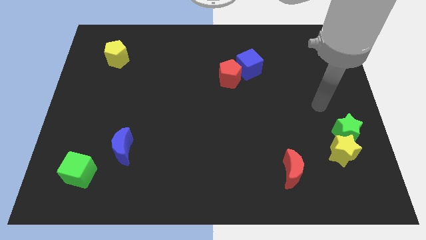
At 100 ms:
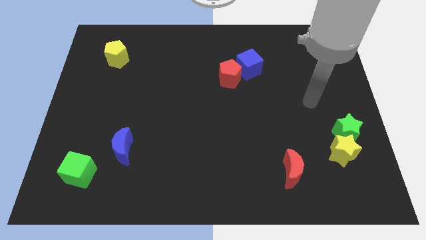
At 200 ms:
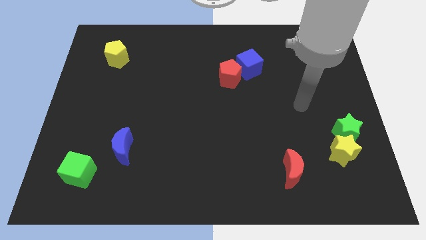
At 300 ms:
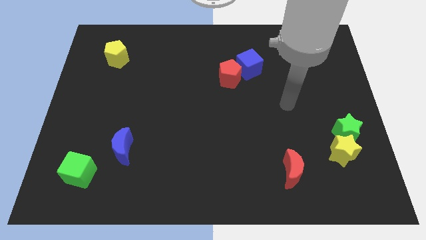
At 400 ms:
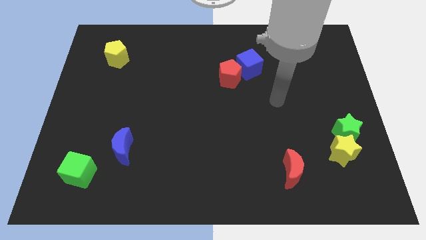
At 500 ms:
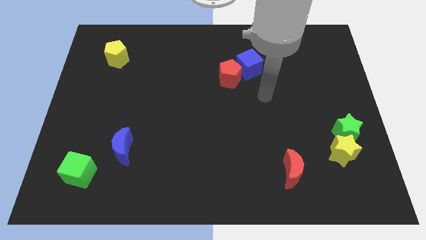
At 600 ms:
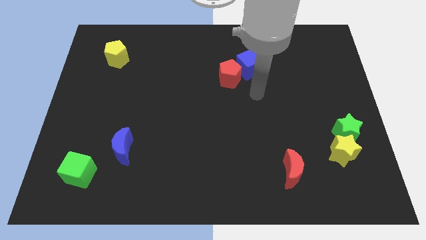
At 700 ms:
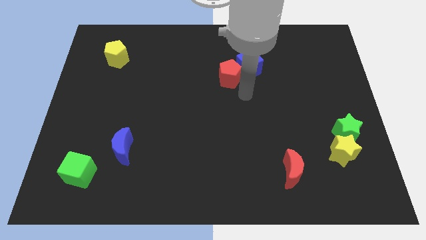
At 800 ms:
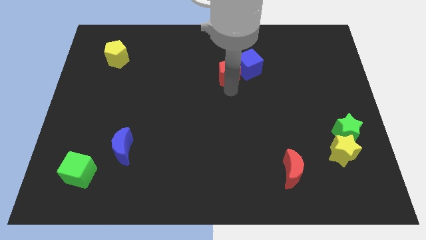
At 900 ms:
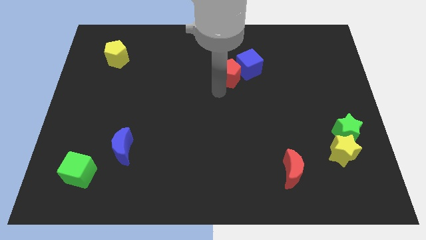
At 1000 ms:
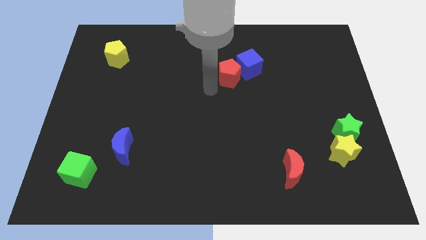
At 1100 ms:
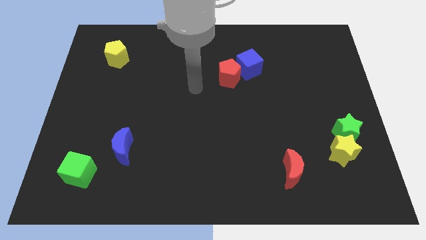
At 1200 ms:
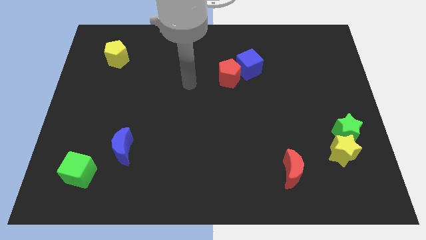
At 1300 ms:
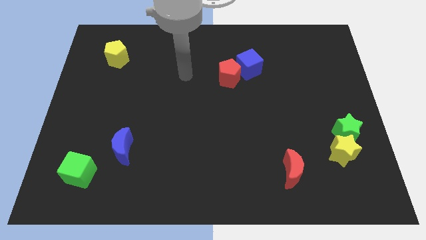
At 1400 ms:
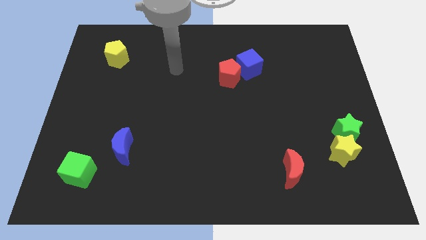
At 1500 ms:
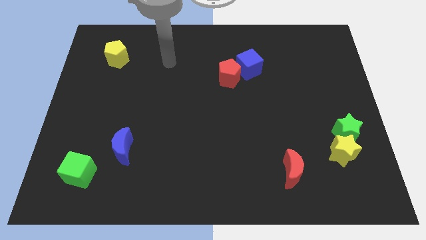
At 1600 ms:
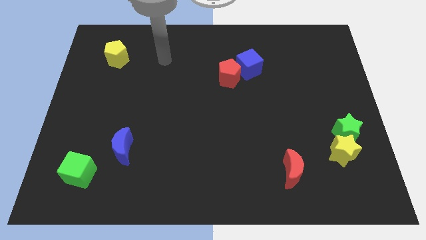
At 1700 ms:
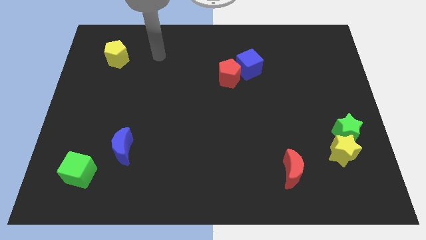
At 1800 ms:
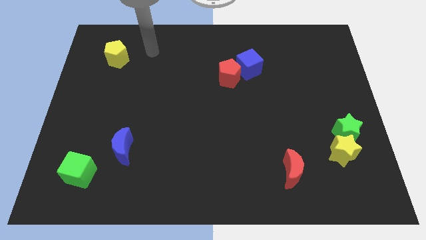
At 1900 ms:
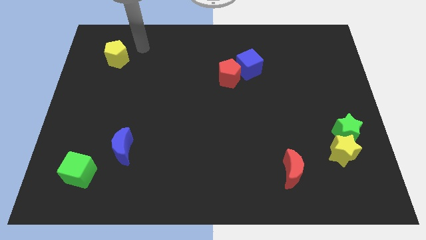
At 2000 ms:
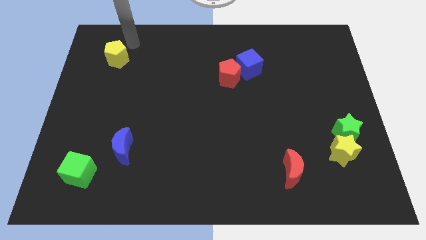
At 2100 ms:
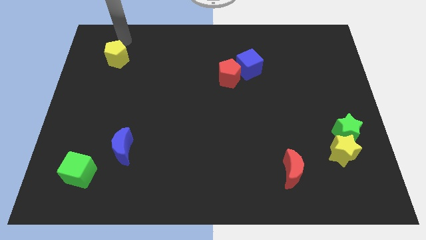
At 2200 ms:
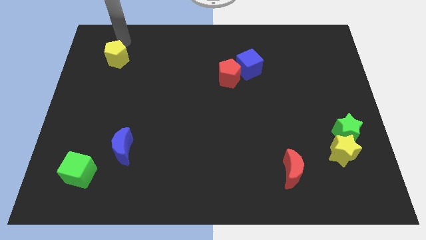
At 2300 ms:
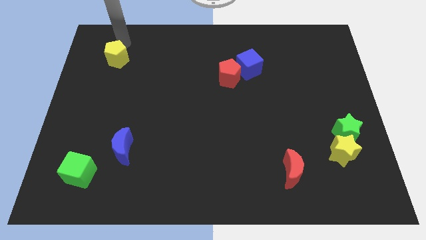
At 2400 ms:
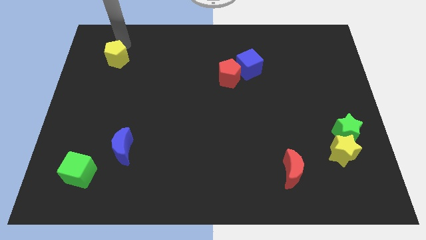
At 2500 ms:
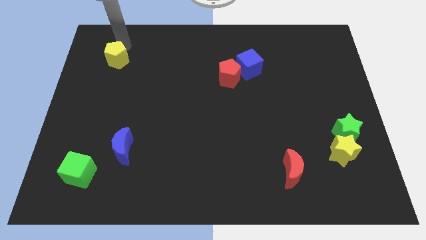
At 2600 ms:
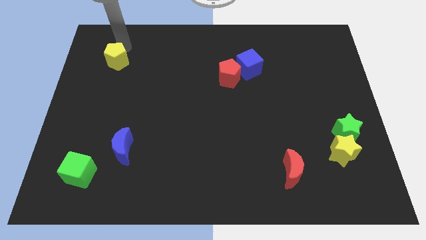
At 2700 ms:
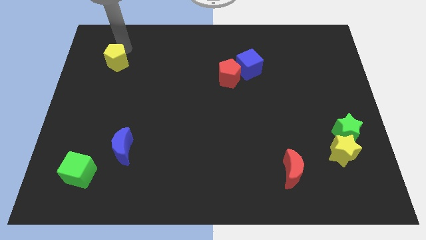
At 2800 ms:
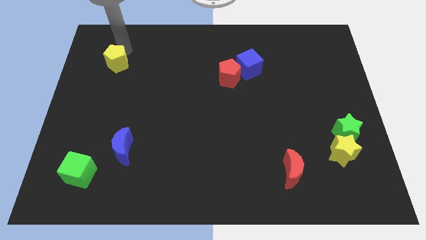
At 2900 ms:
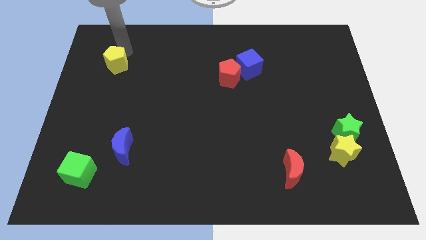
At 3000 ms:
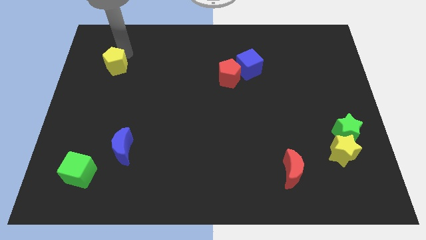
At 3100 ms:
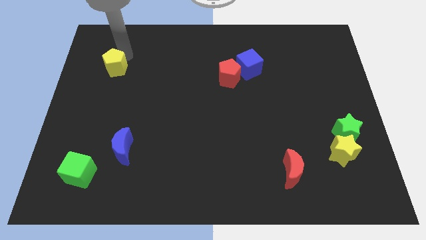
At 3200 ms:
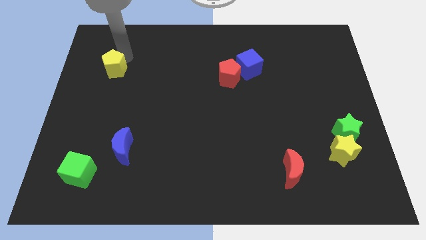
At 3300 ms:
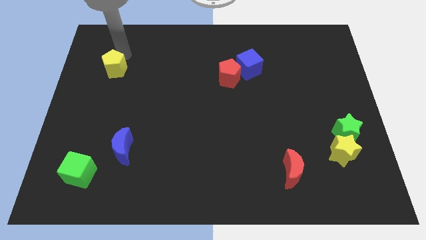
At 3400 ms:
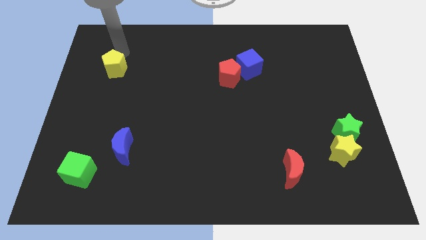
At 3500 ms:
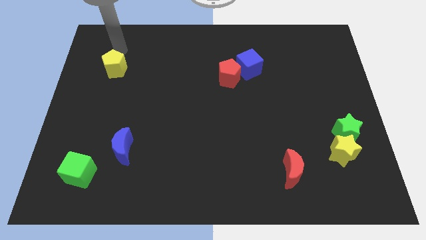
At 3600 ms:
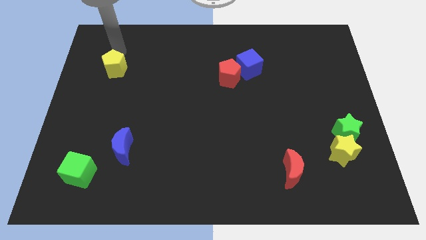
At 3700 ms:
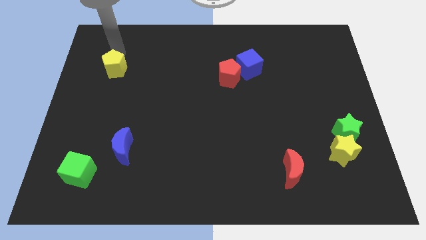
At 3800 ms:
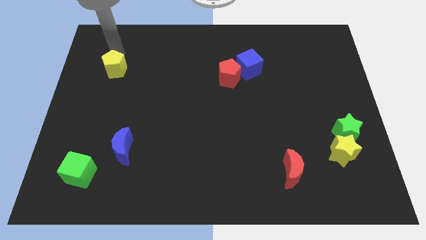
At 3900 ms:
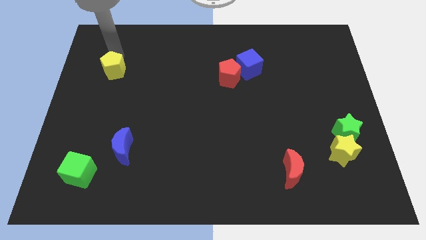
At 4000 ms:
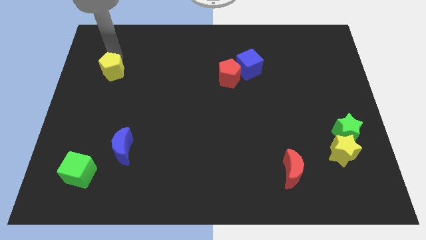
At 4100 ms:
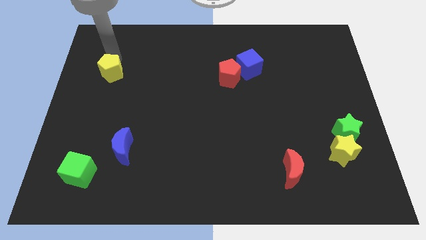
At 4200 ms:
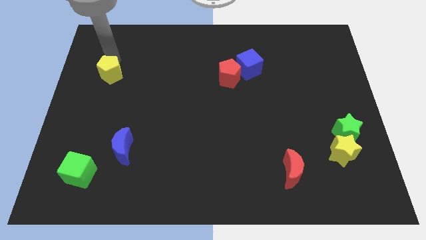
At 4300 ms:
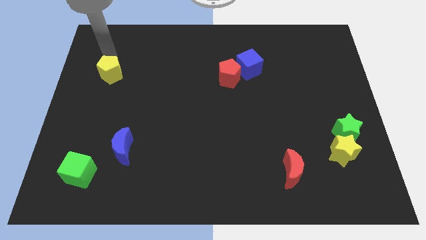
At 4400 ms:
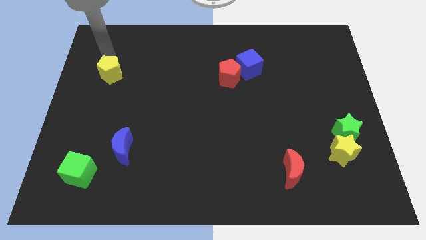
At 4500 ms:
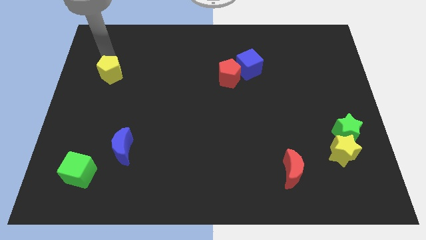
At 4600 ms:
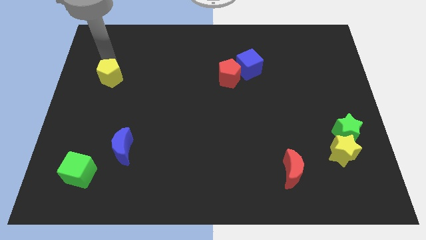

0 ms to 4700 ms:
slightly slide the yellow pentagon down

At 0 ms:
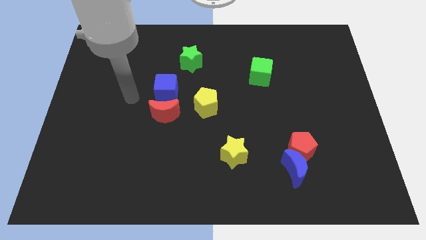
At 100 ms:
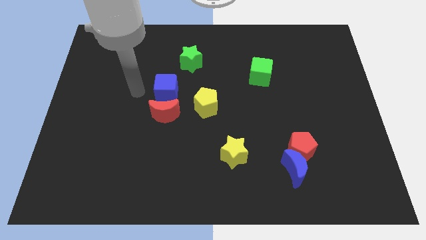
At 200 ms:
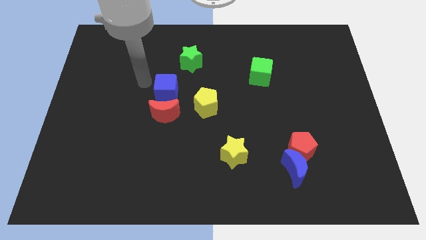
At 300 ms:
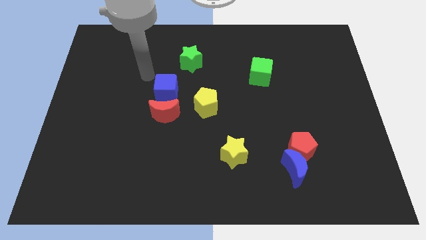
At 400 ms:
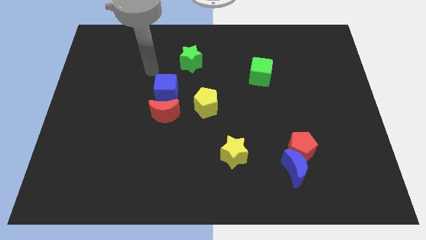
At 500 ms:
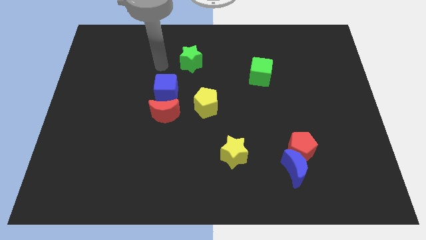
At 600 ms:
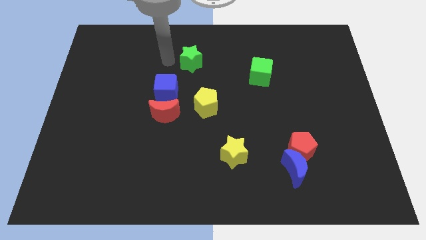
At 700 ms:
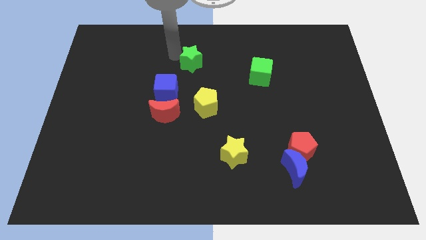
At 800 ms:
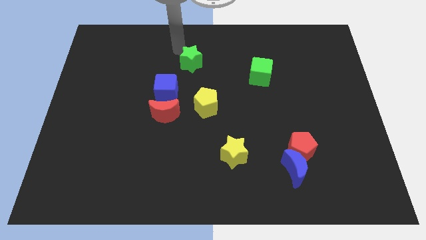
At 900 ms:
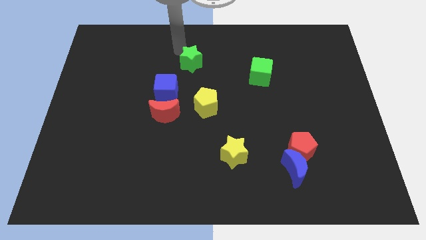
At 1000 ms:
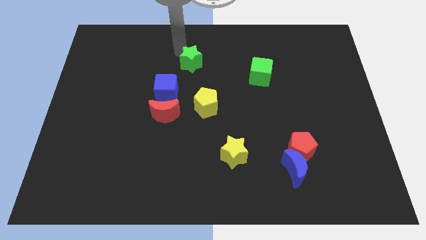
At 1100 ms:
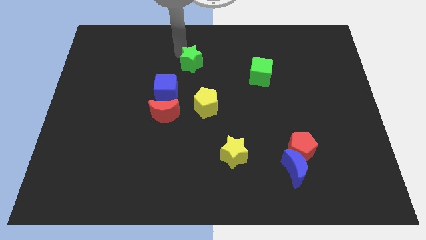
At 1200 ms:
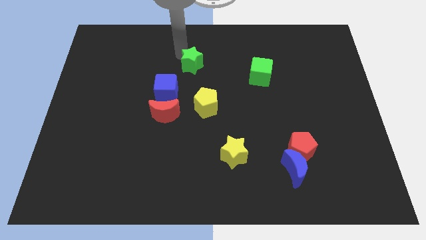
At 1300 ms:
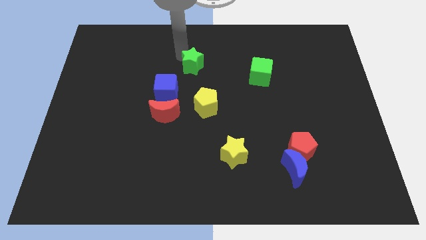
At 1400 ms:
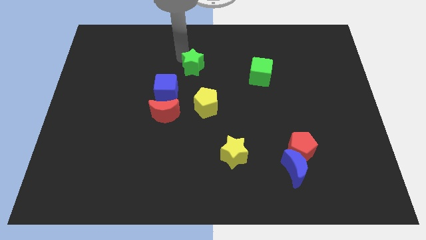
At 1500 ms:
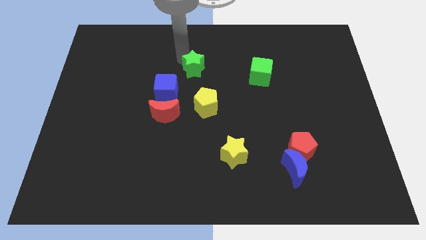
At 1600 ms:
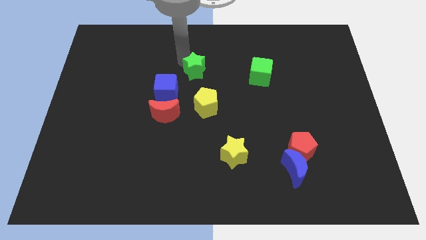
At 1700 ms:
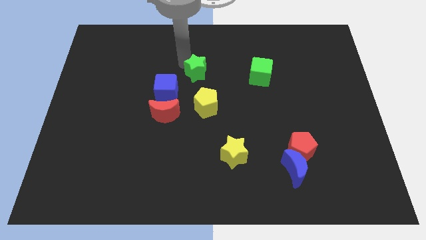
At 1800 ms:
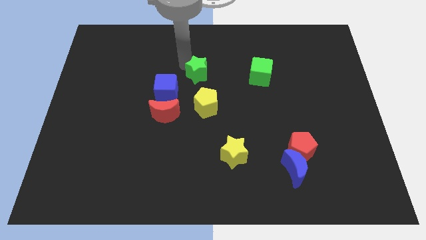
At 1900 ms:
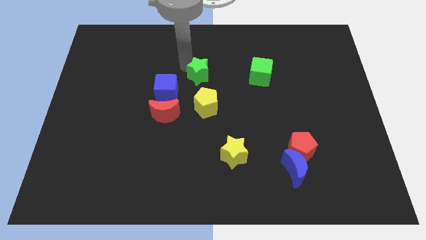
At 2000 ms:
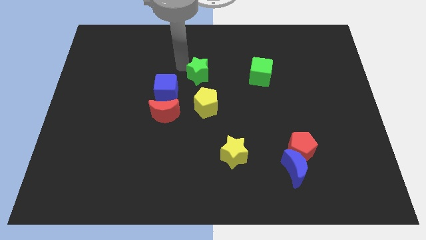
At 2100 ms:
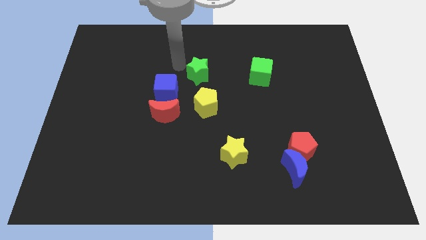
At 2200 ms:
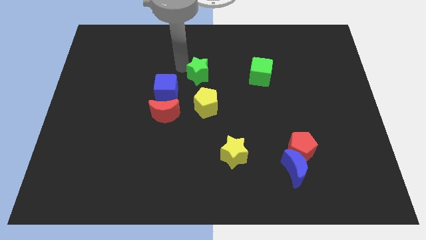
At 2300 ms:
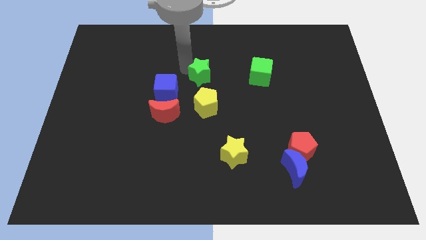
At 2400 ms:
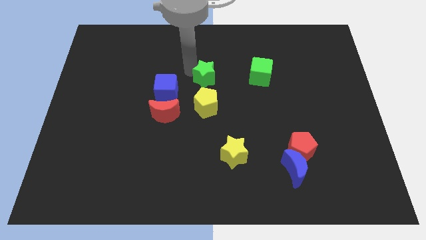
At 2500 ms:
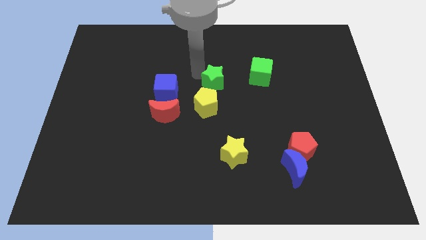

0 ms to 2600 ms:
move the green star a little bit downwards and to the right diagonally

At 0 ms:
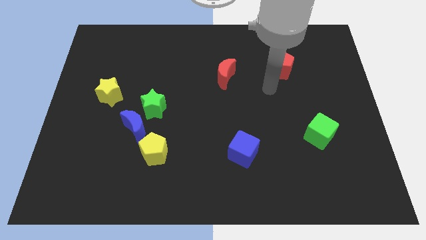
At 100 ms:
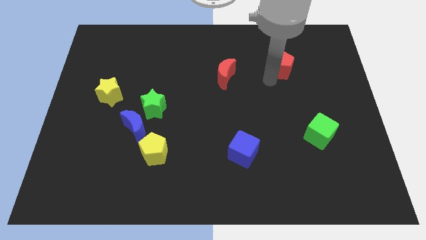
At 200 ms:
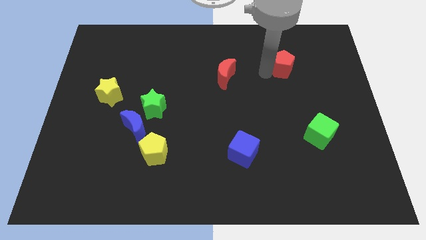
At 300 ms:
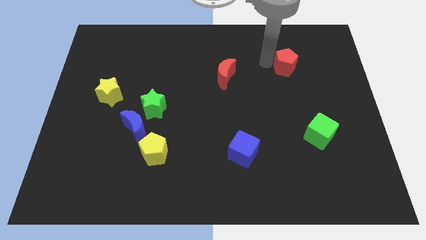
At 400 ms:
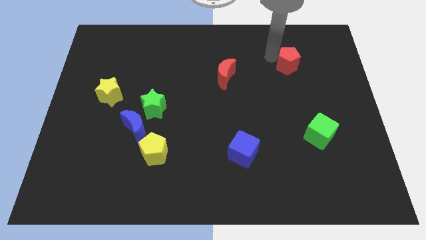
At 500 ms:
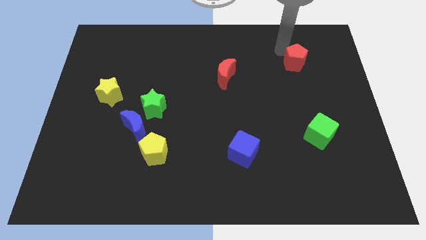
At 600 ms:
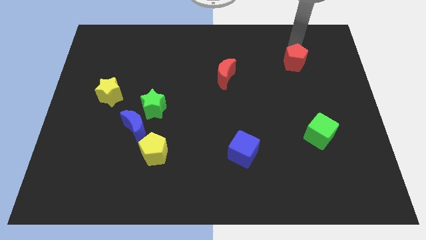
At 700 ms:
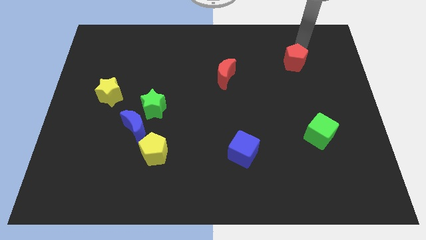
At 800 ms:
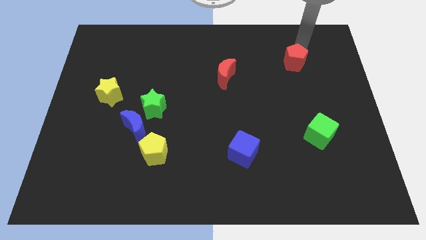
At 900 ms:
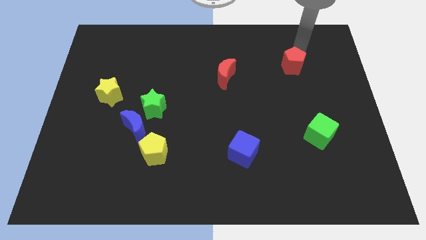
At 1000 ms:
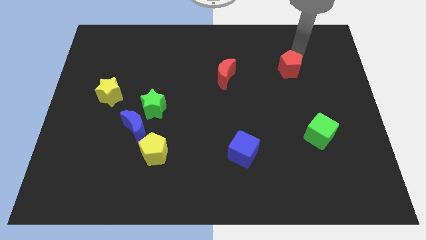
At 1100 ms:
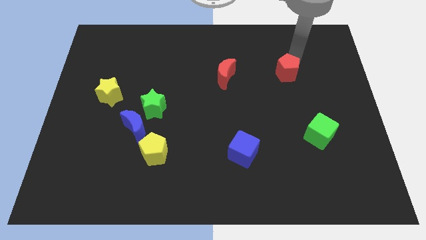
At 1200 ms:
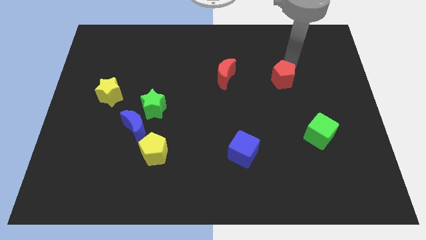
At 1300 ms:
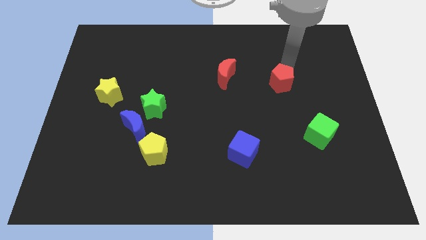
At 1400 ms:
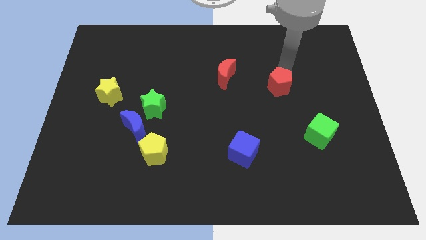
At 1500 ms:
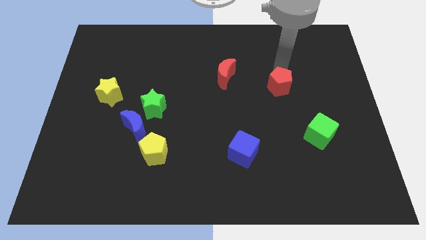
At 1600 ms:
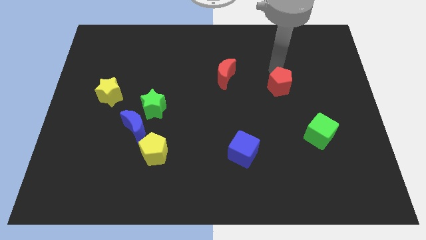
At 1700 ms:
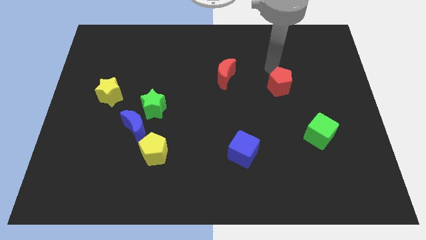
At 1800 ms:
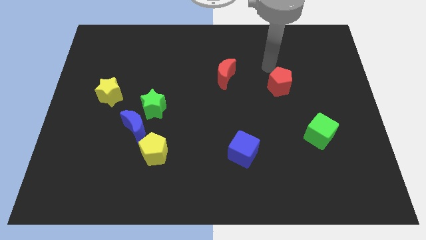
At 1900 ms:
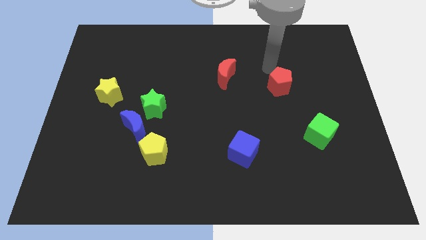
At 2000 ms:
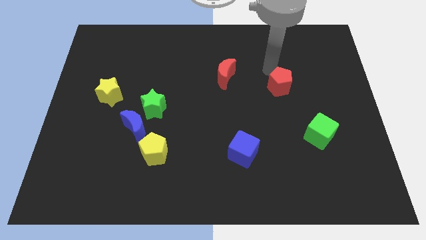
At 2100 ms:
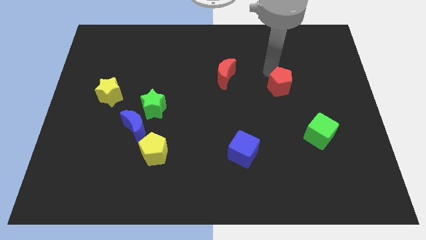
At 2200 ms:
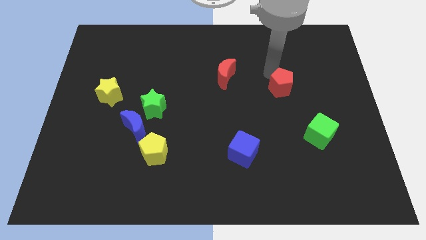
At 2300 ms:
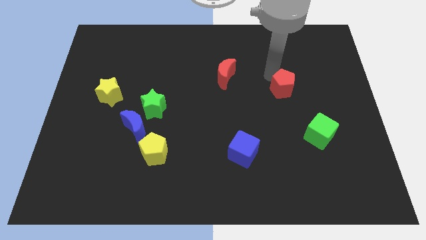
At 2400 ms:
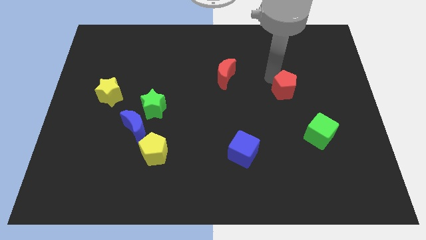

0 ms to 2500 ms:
move the red pentagon a little bit downwards
